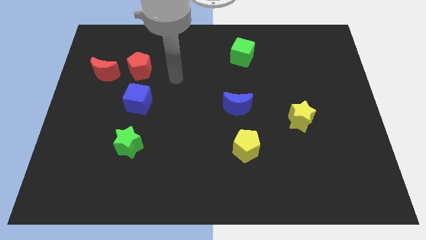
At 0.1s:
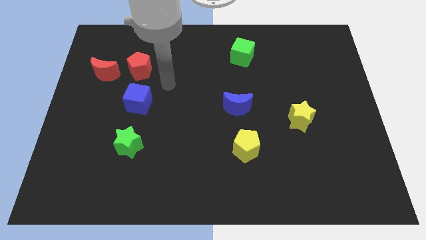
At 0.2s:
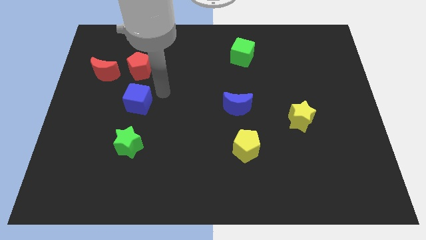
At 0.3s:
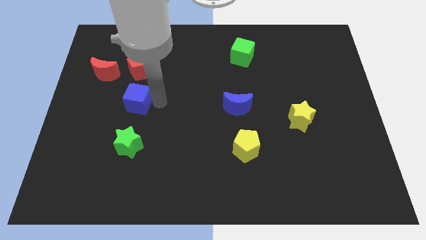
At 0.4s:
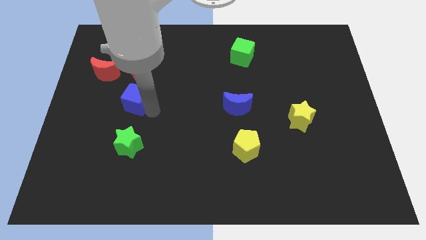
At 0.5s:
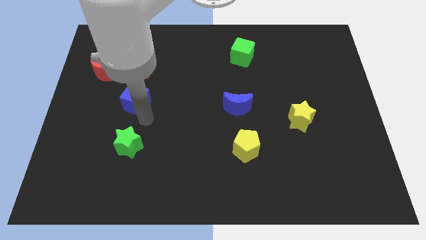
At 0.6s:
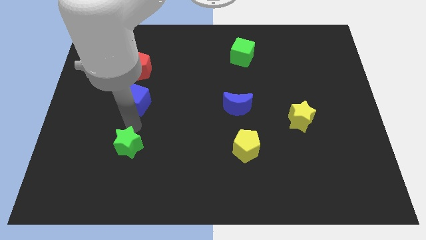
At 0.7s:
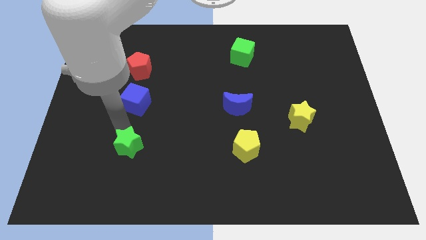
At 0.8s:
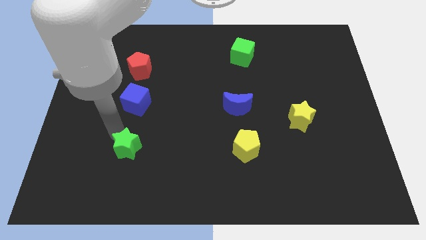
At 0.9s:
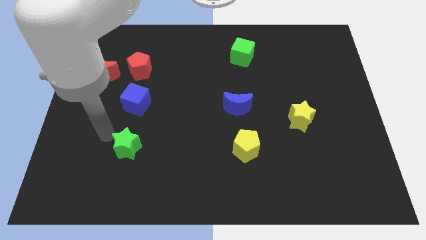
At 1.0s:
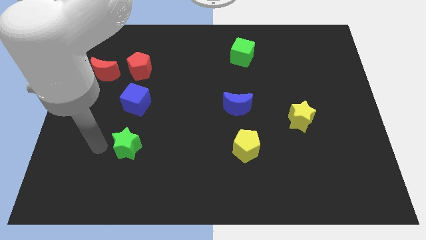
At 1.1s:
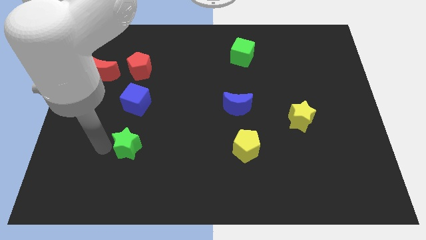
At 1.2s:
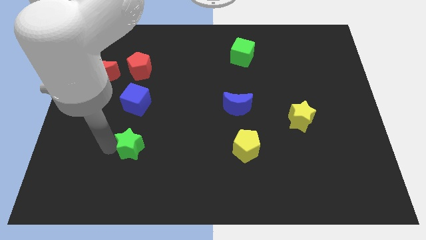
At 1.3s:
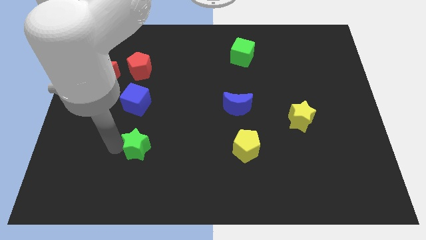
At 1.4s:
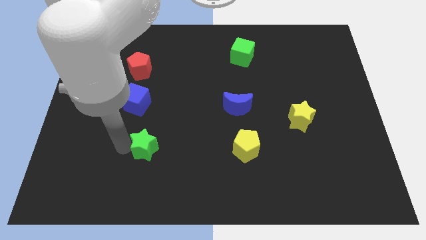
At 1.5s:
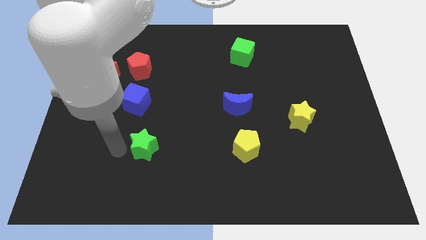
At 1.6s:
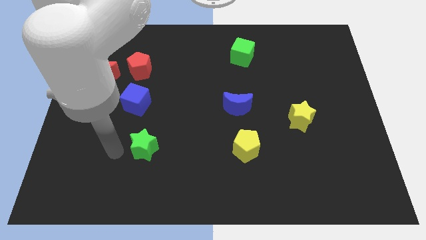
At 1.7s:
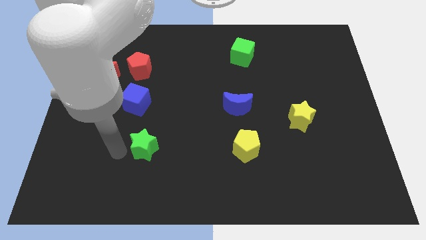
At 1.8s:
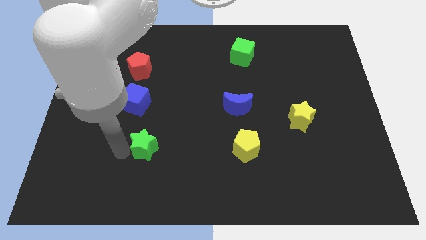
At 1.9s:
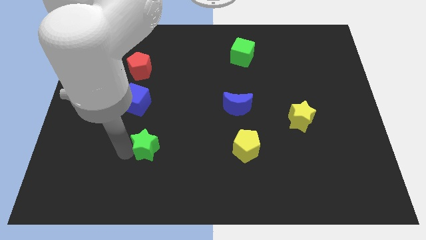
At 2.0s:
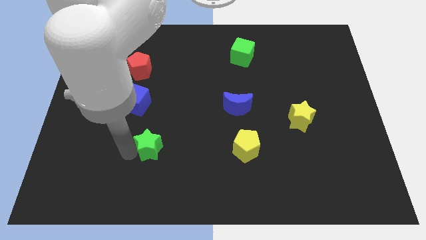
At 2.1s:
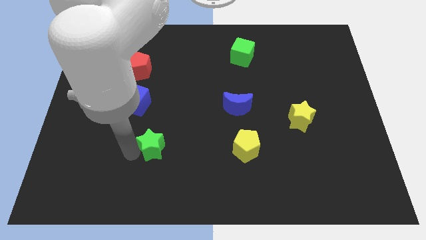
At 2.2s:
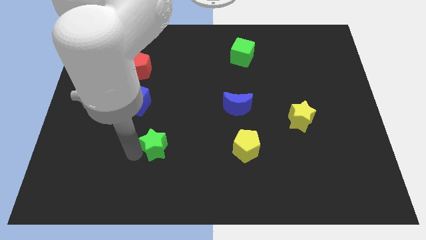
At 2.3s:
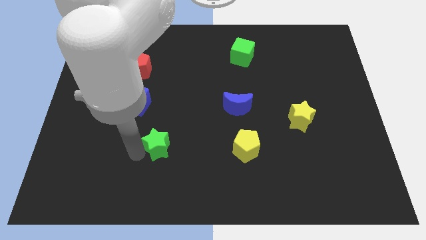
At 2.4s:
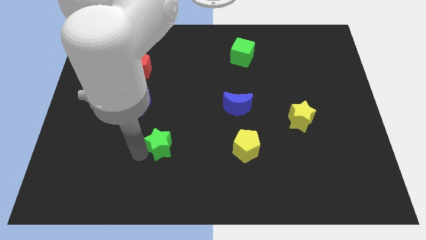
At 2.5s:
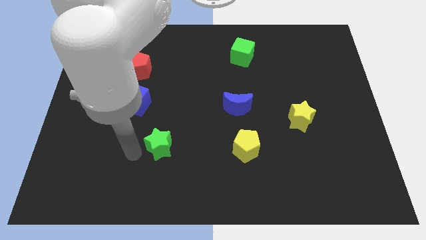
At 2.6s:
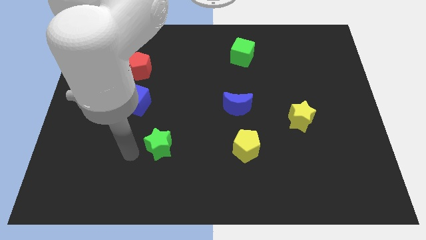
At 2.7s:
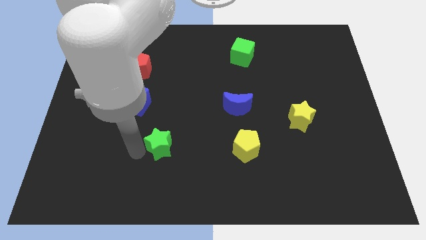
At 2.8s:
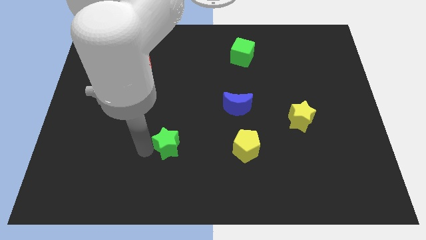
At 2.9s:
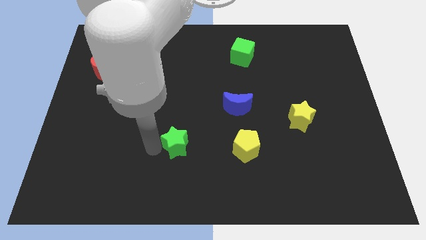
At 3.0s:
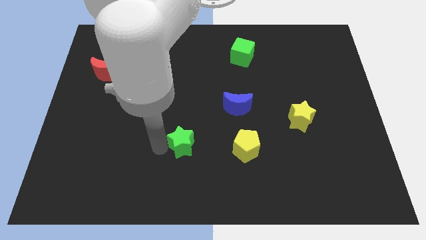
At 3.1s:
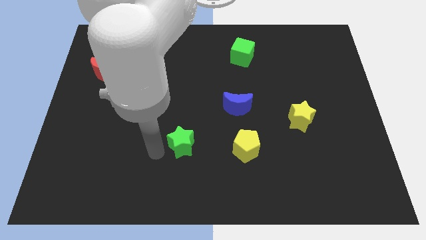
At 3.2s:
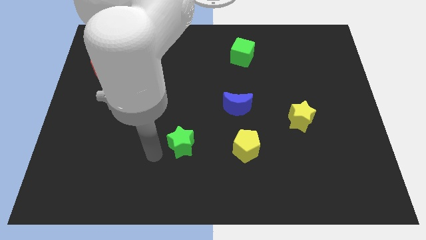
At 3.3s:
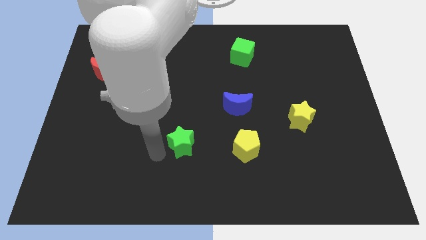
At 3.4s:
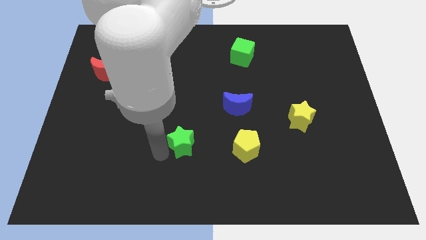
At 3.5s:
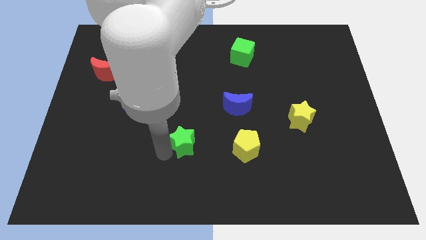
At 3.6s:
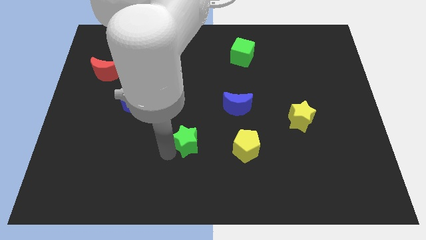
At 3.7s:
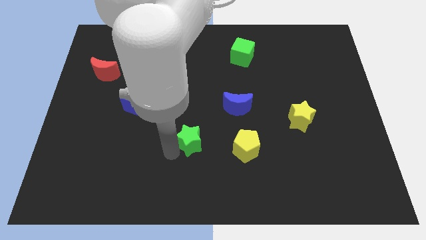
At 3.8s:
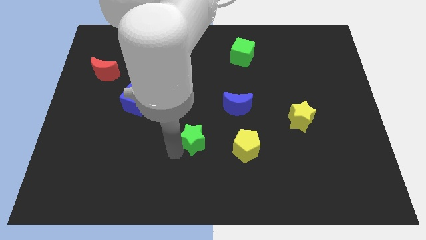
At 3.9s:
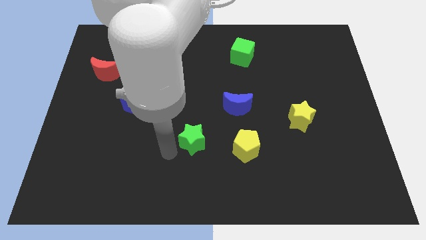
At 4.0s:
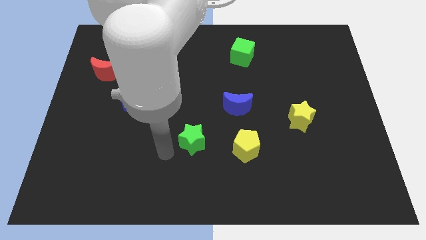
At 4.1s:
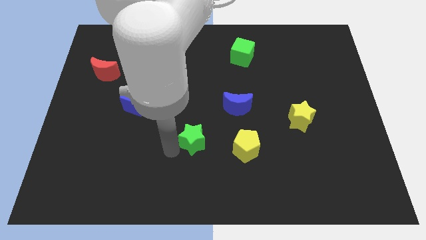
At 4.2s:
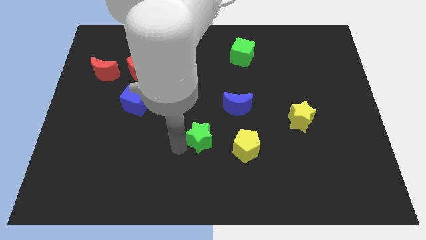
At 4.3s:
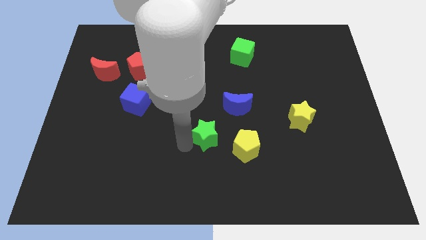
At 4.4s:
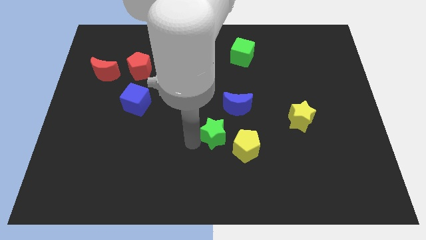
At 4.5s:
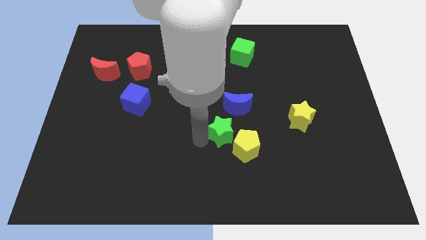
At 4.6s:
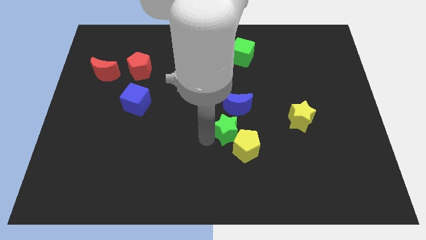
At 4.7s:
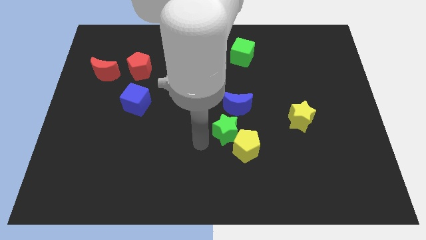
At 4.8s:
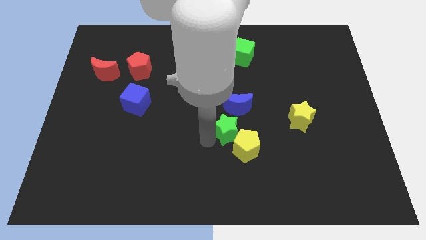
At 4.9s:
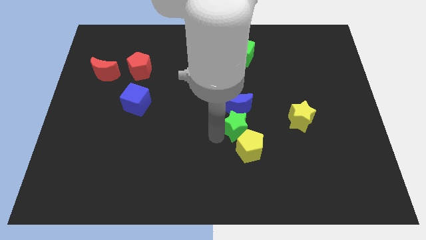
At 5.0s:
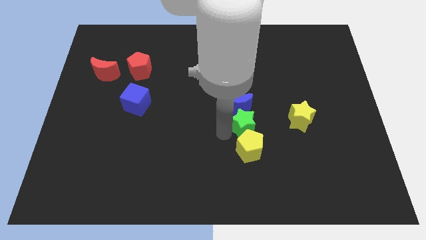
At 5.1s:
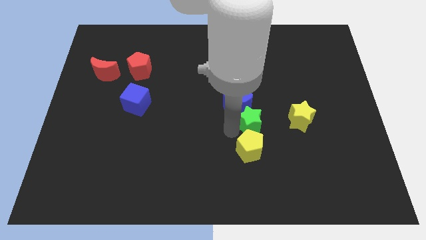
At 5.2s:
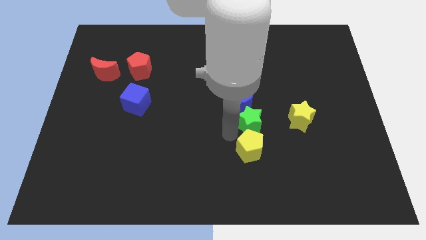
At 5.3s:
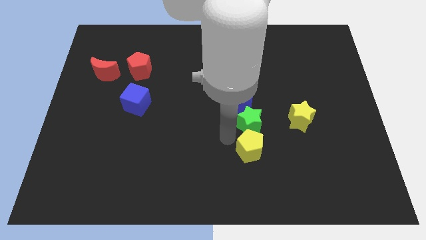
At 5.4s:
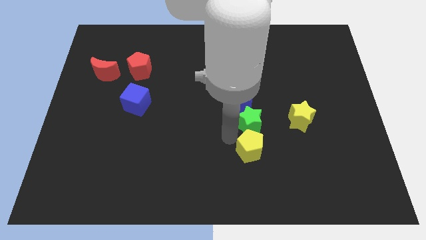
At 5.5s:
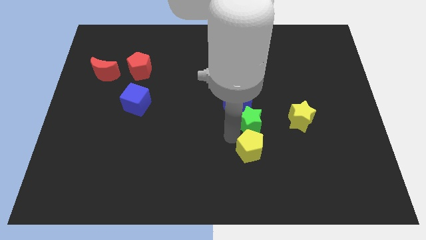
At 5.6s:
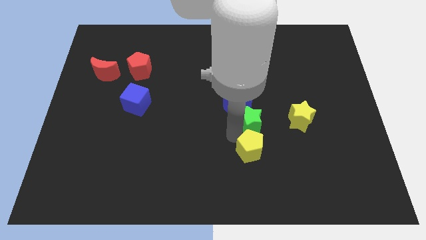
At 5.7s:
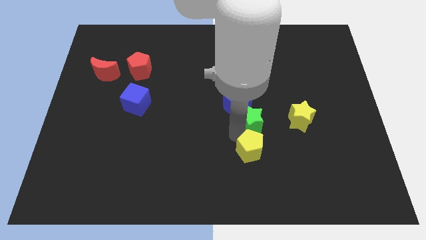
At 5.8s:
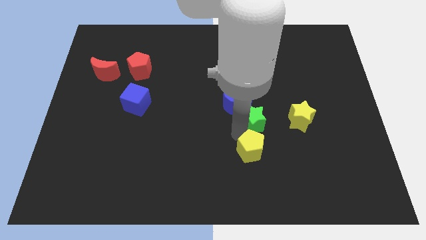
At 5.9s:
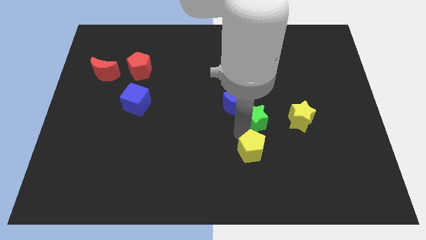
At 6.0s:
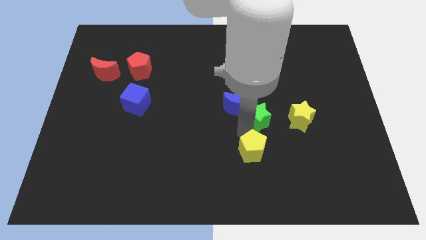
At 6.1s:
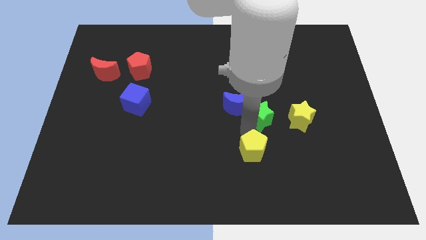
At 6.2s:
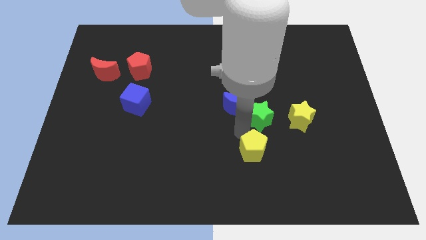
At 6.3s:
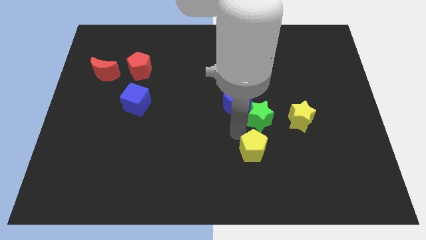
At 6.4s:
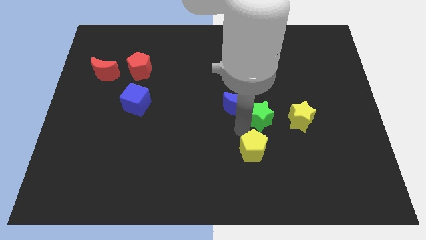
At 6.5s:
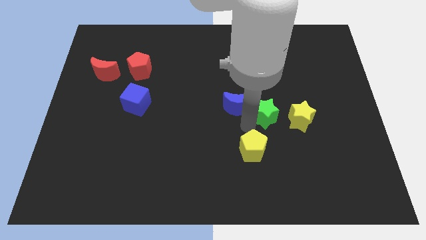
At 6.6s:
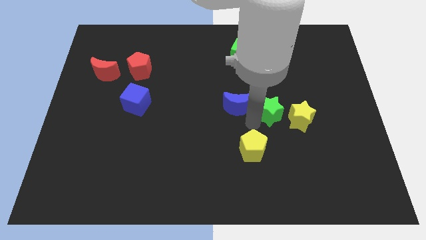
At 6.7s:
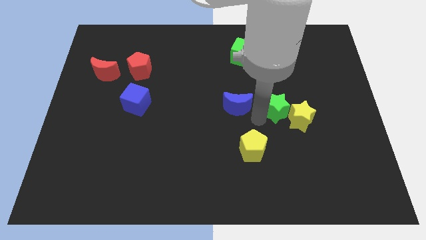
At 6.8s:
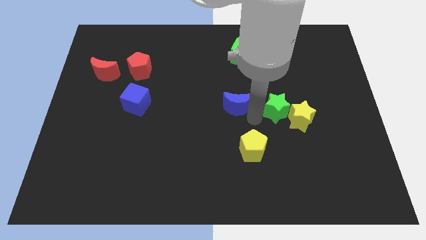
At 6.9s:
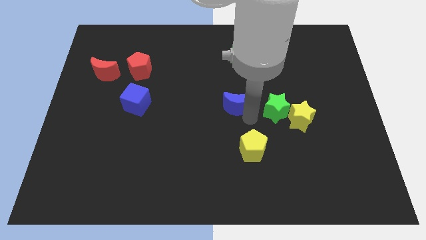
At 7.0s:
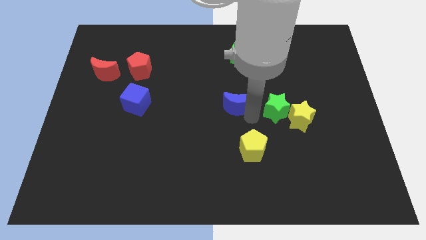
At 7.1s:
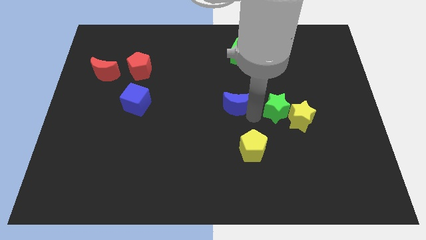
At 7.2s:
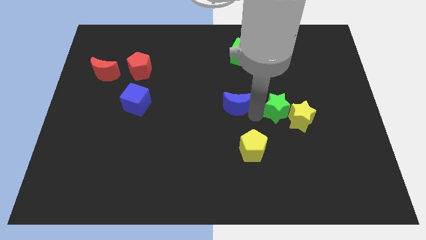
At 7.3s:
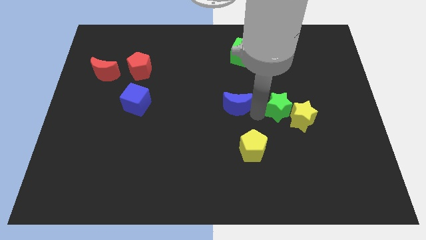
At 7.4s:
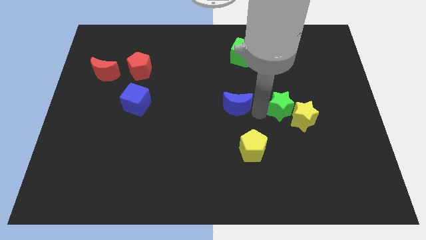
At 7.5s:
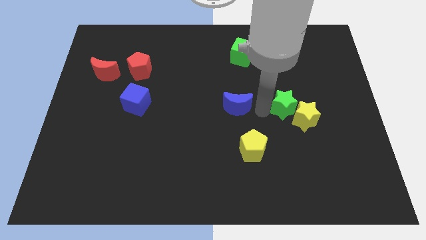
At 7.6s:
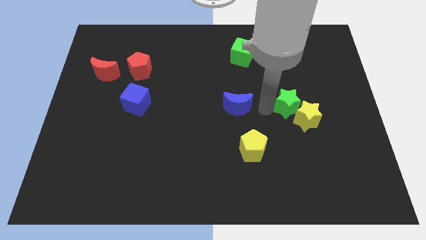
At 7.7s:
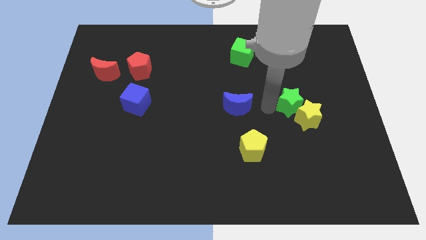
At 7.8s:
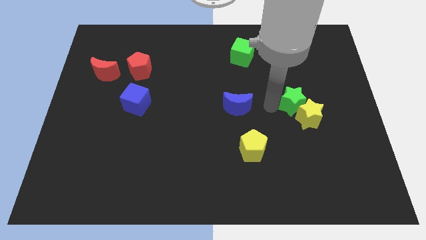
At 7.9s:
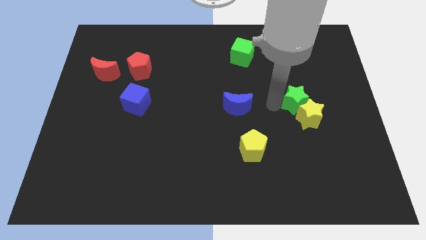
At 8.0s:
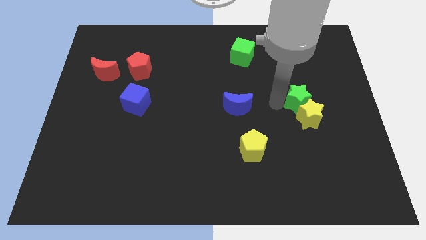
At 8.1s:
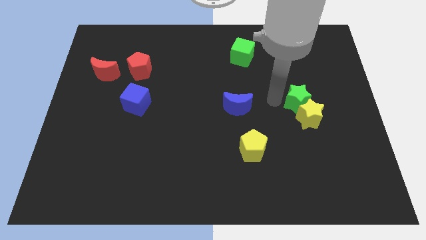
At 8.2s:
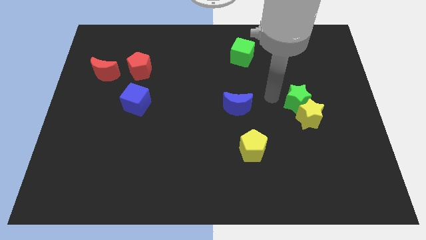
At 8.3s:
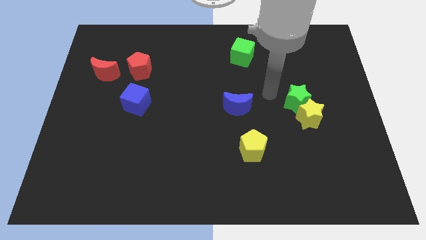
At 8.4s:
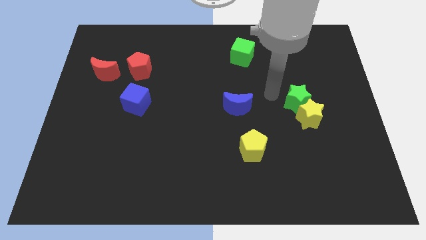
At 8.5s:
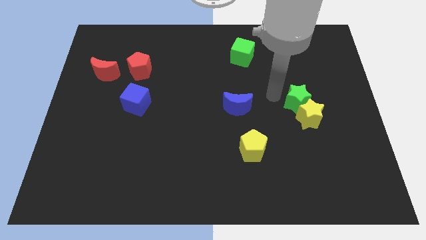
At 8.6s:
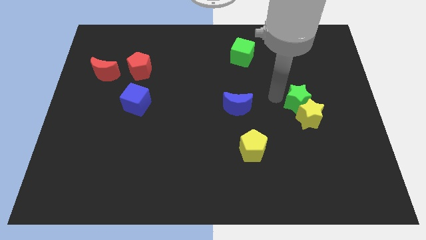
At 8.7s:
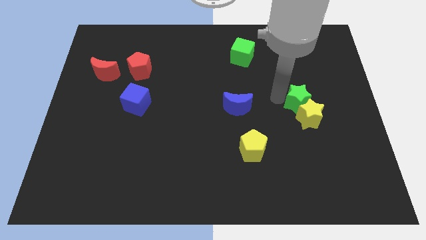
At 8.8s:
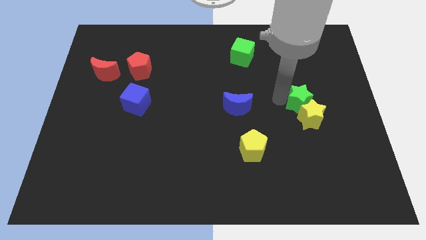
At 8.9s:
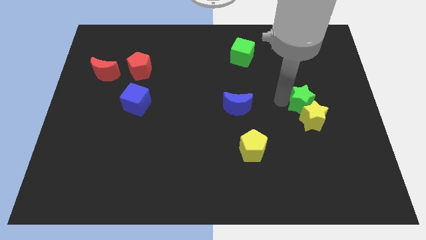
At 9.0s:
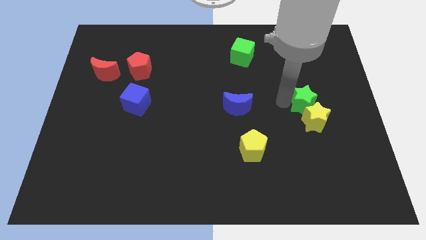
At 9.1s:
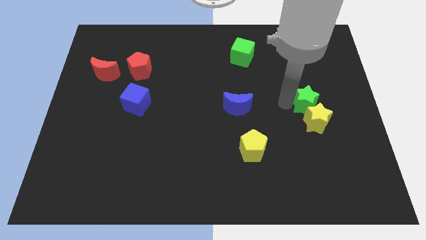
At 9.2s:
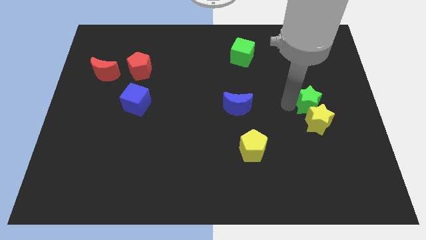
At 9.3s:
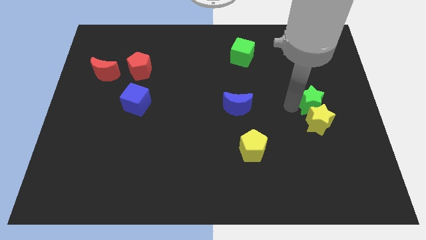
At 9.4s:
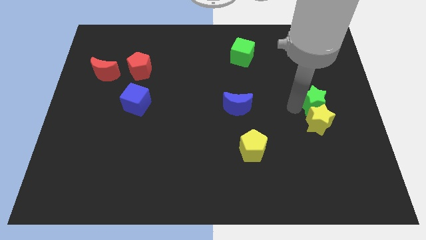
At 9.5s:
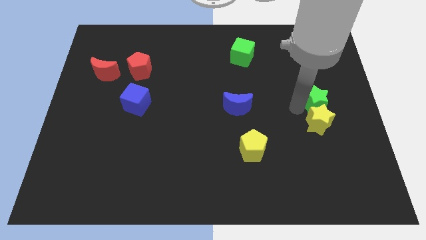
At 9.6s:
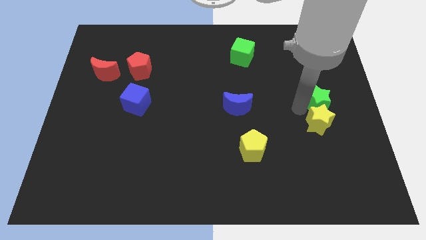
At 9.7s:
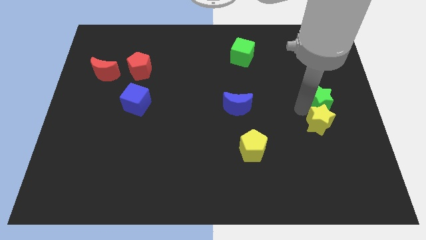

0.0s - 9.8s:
move the green star to the right side of the board
